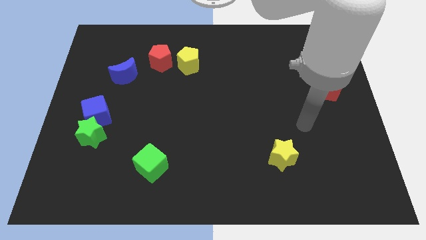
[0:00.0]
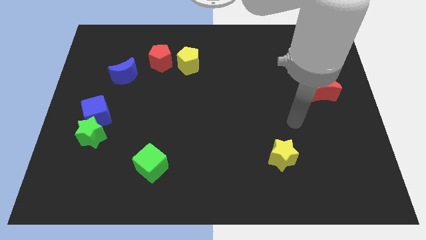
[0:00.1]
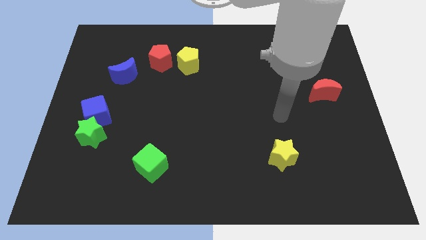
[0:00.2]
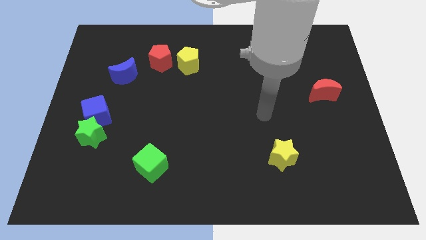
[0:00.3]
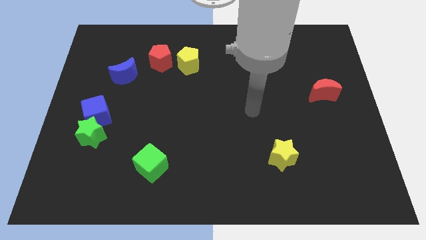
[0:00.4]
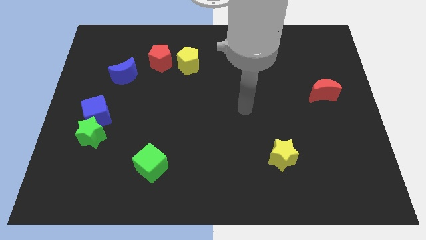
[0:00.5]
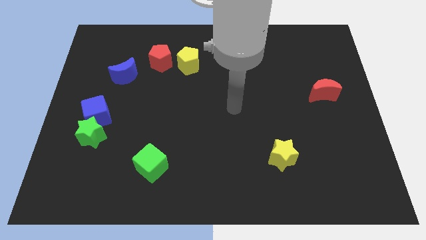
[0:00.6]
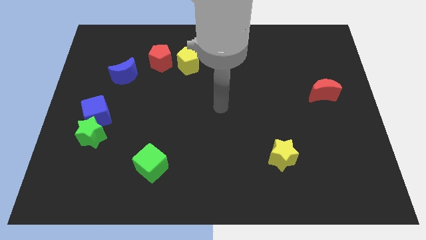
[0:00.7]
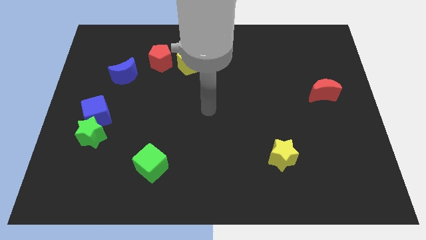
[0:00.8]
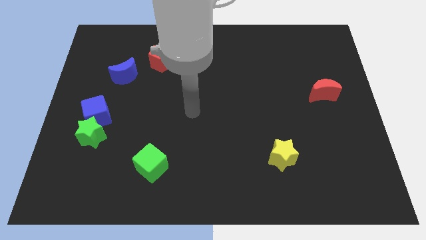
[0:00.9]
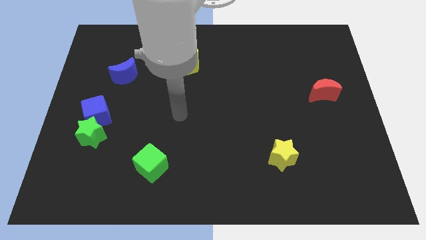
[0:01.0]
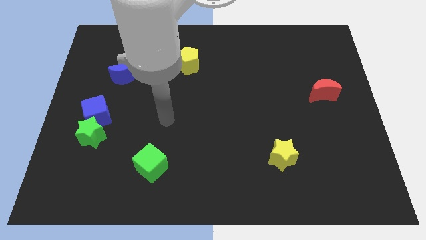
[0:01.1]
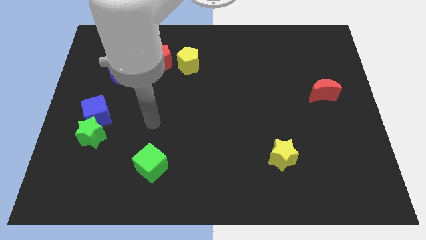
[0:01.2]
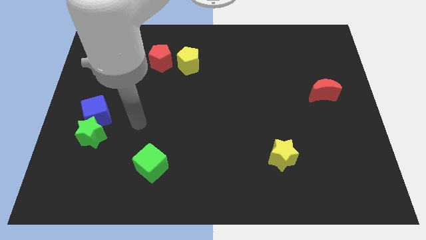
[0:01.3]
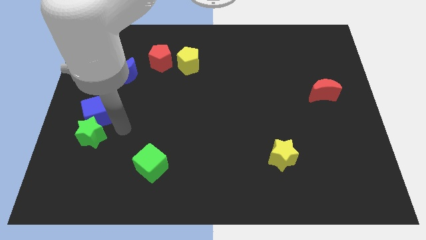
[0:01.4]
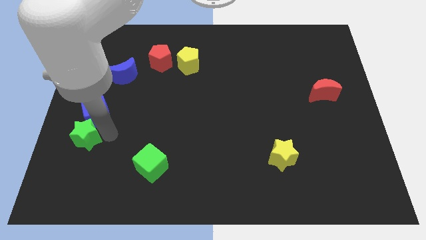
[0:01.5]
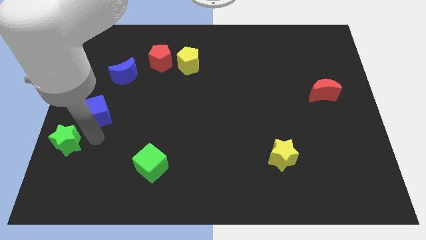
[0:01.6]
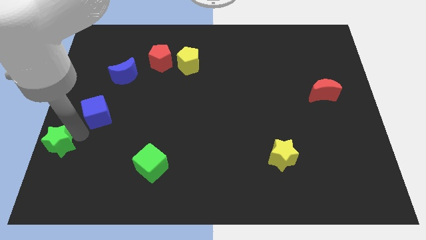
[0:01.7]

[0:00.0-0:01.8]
pull the blue cube apart from the green star

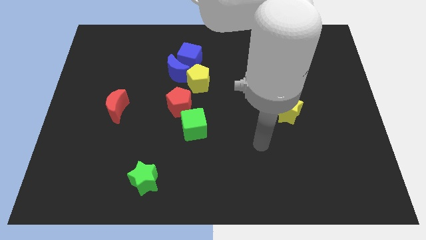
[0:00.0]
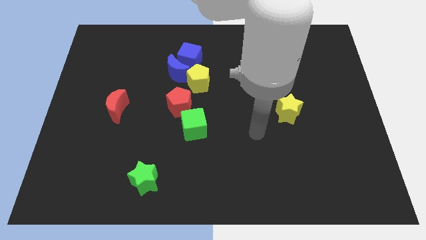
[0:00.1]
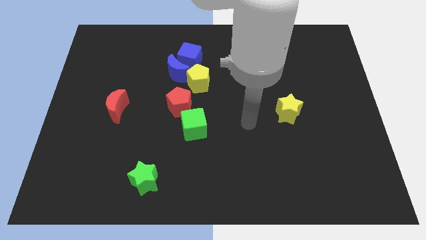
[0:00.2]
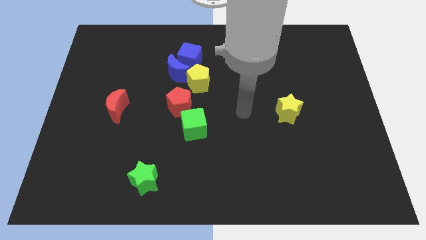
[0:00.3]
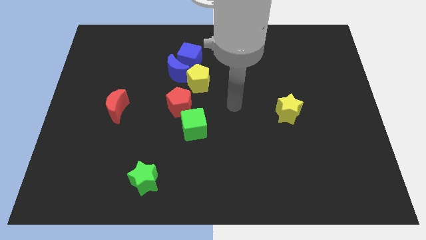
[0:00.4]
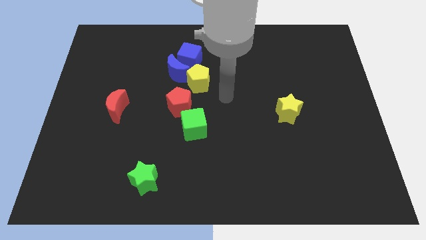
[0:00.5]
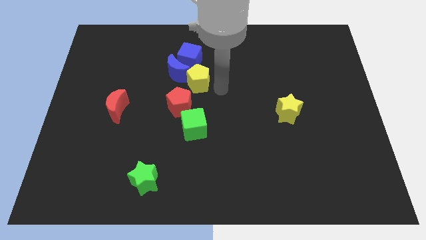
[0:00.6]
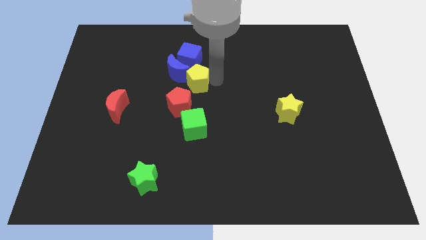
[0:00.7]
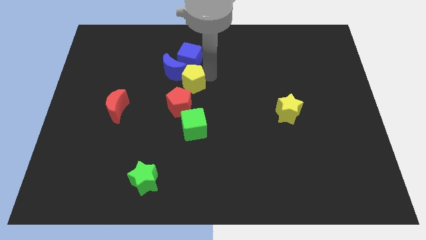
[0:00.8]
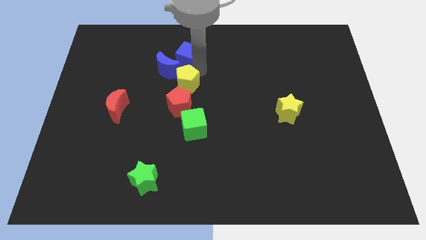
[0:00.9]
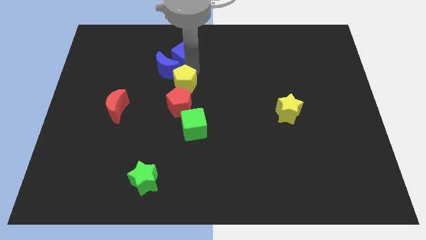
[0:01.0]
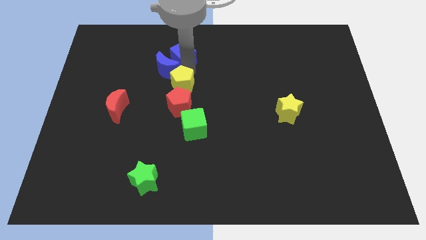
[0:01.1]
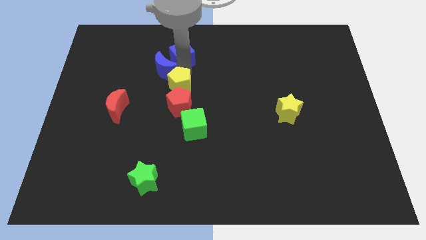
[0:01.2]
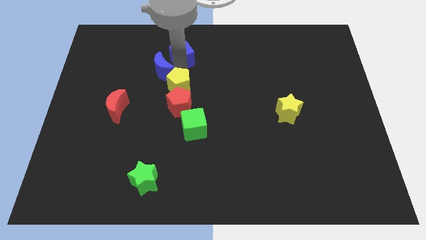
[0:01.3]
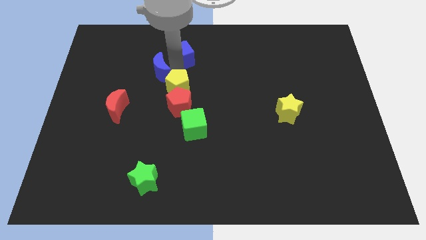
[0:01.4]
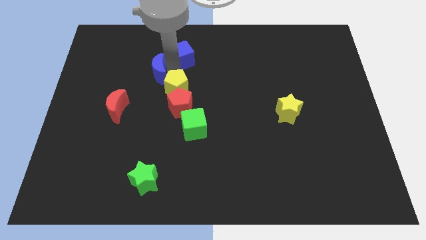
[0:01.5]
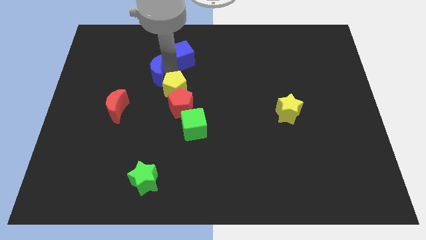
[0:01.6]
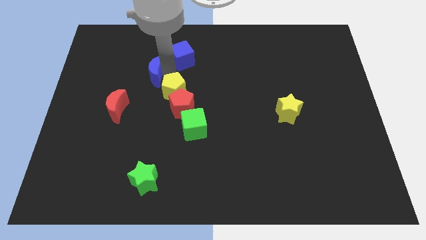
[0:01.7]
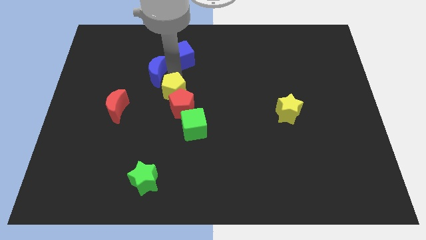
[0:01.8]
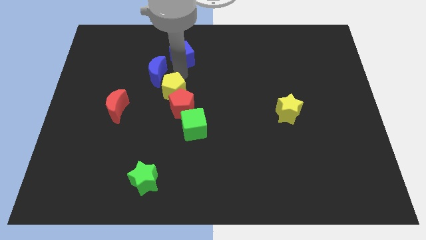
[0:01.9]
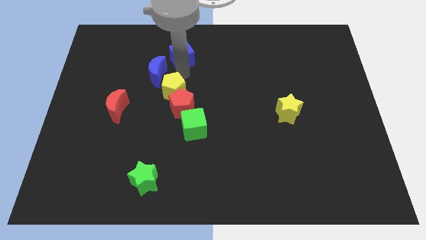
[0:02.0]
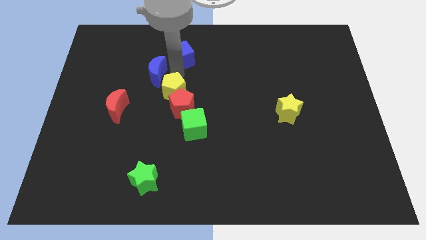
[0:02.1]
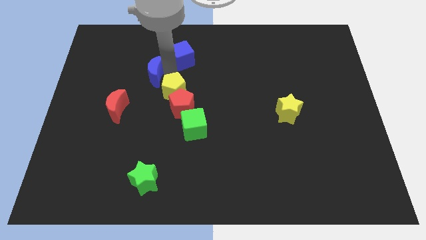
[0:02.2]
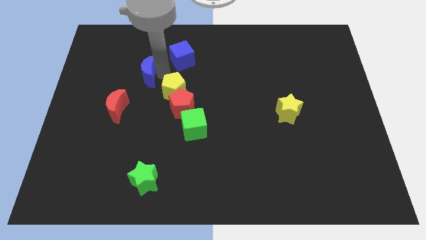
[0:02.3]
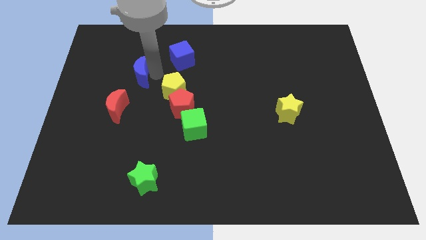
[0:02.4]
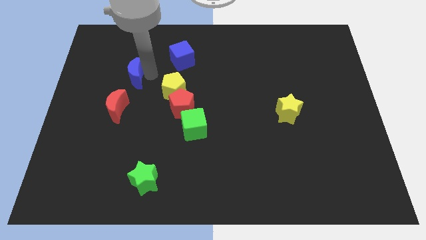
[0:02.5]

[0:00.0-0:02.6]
pull the blue moon apart from the blue cube and yellow pentagon

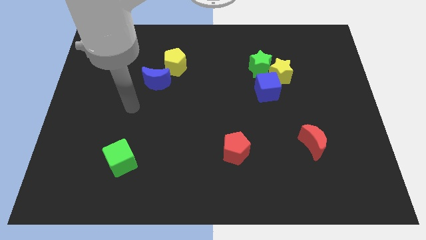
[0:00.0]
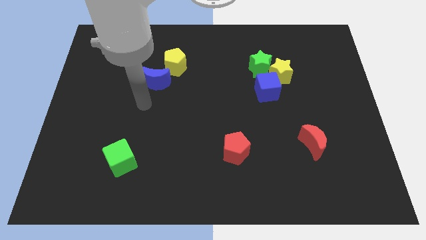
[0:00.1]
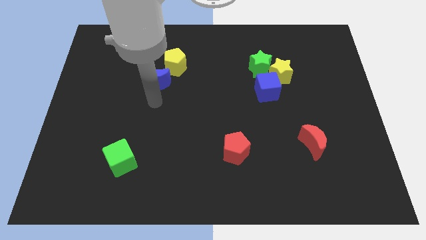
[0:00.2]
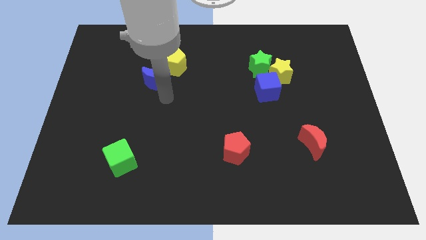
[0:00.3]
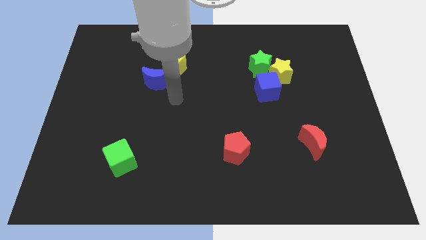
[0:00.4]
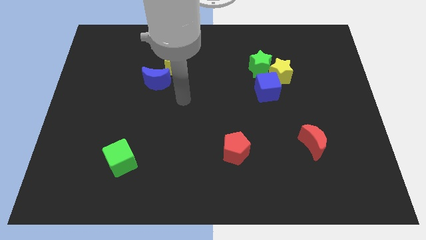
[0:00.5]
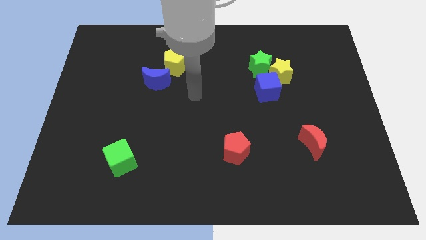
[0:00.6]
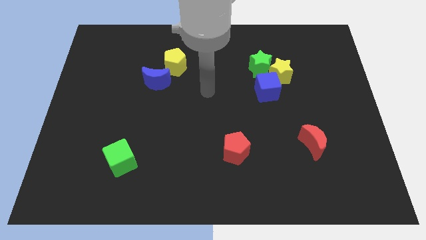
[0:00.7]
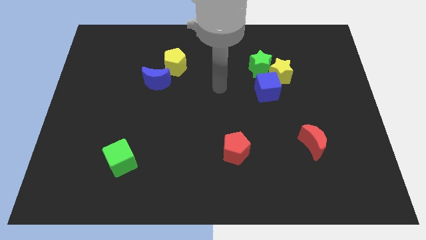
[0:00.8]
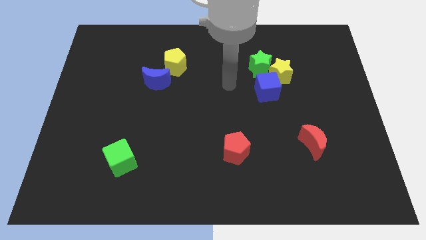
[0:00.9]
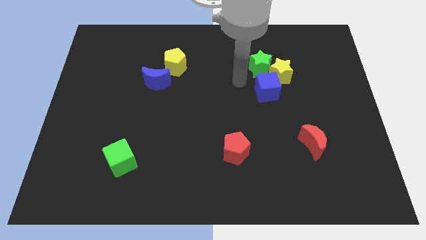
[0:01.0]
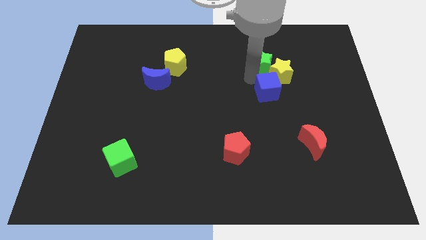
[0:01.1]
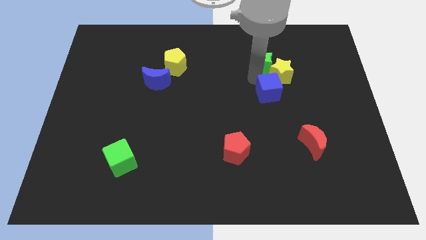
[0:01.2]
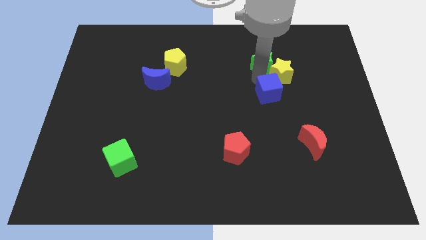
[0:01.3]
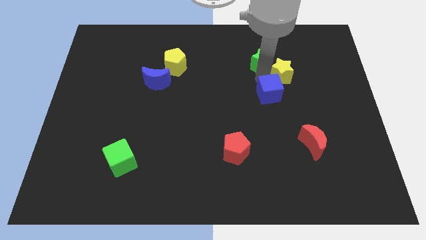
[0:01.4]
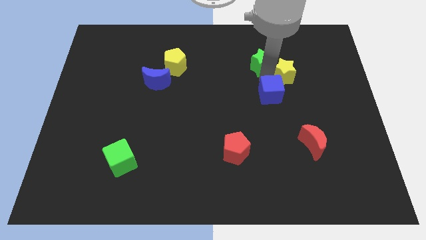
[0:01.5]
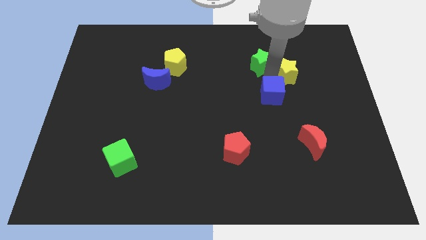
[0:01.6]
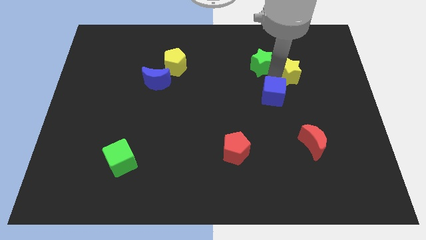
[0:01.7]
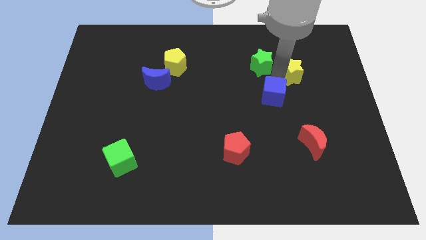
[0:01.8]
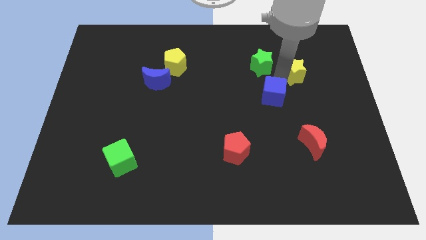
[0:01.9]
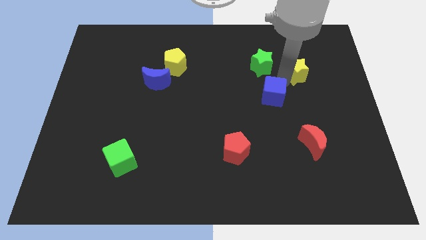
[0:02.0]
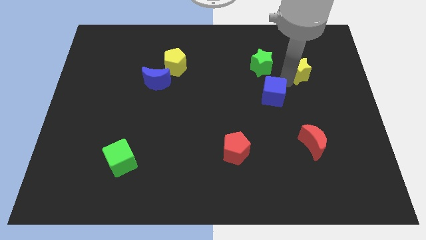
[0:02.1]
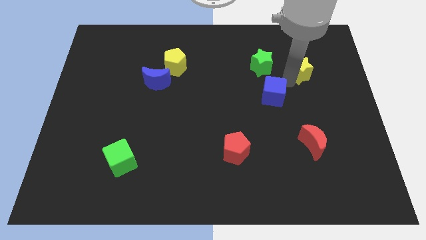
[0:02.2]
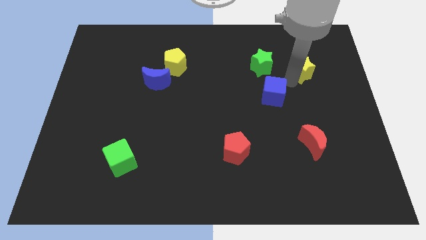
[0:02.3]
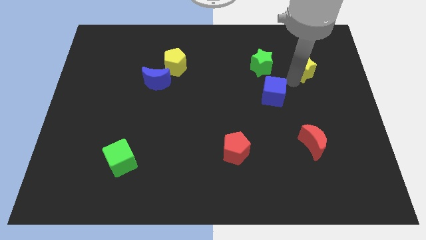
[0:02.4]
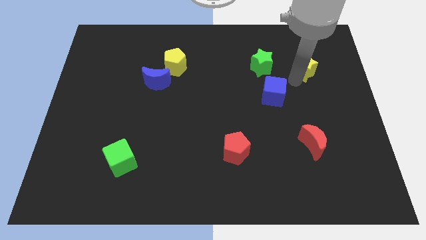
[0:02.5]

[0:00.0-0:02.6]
separate the yellow star from the green star and blue cube

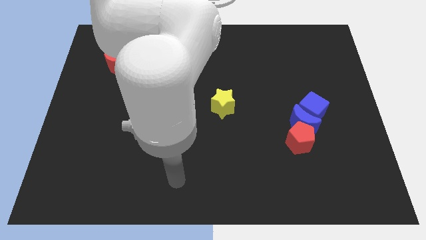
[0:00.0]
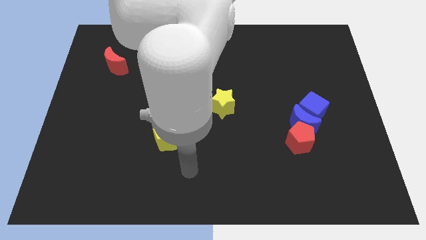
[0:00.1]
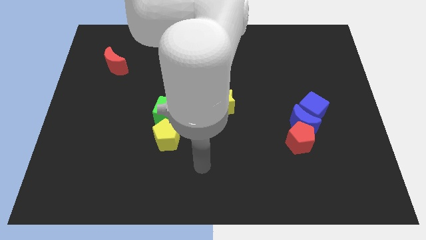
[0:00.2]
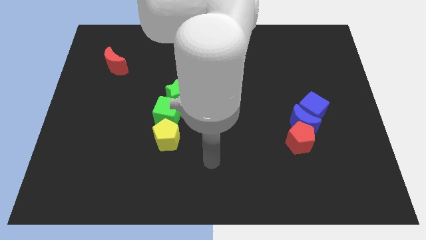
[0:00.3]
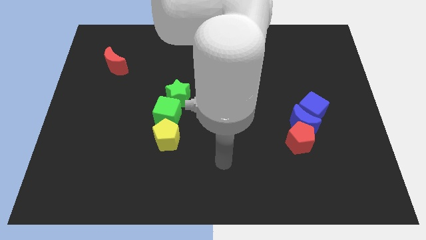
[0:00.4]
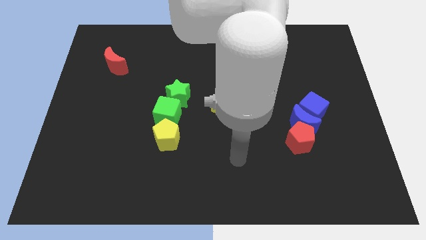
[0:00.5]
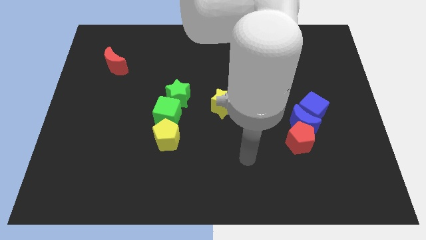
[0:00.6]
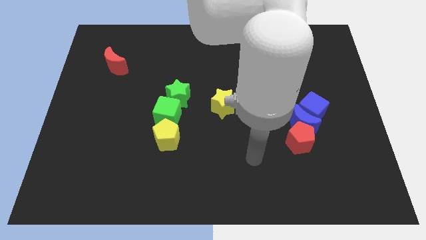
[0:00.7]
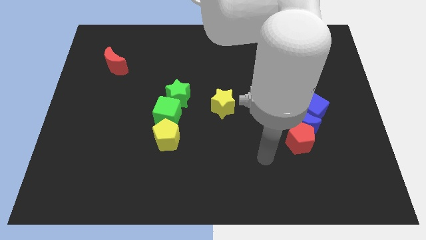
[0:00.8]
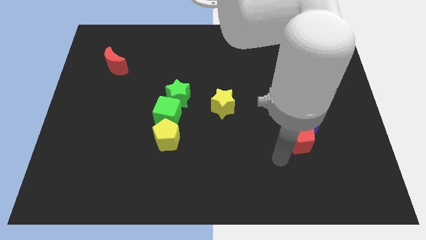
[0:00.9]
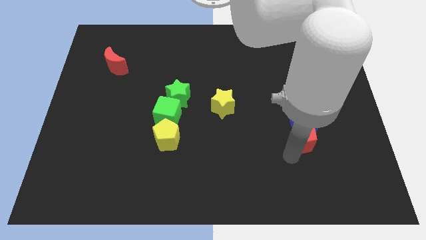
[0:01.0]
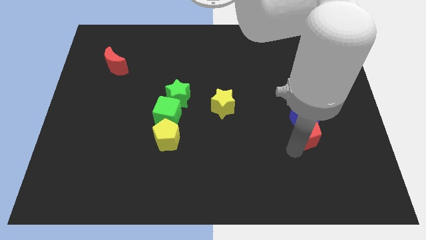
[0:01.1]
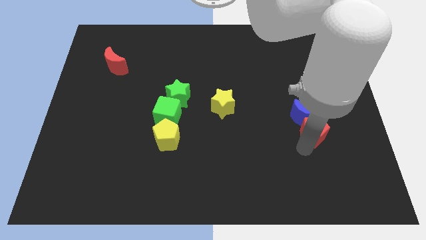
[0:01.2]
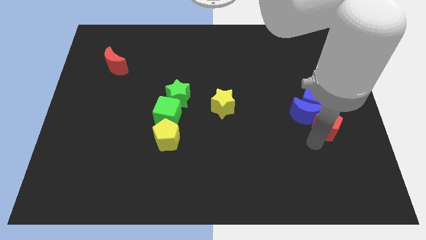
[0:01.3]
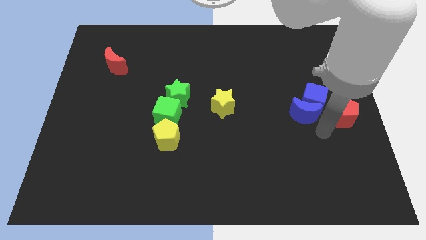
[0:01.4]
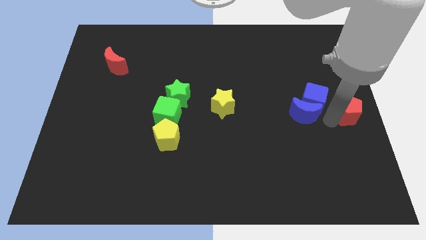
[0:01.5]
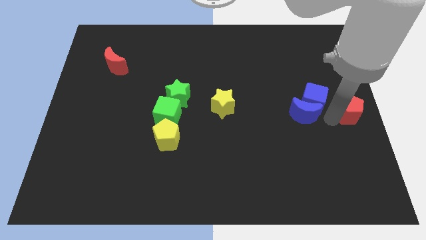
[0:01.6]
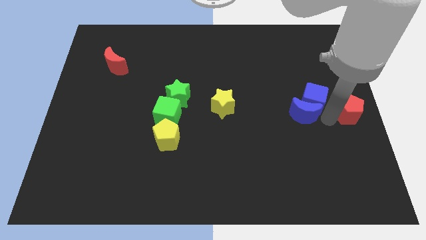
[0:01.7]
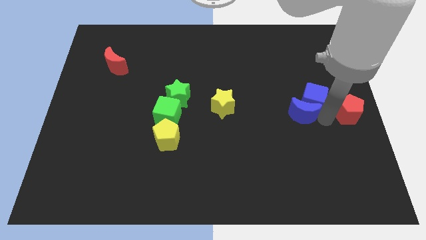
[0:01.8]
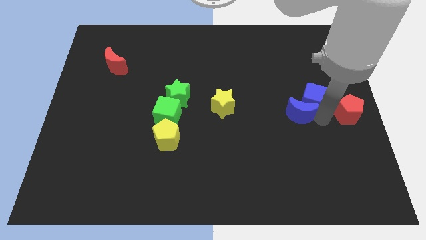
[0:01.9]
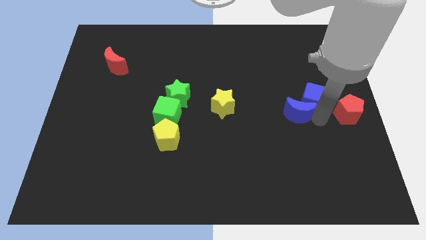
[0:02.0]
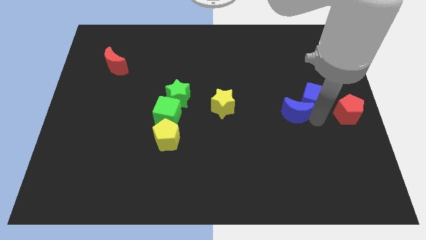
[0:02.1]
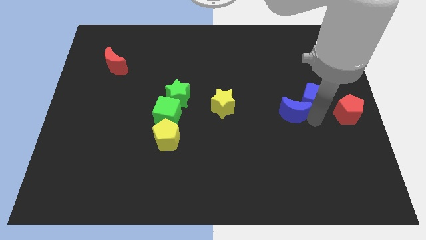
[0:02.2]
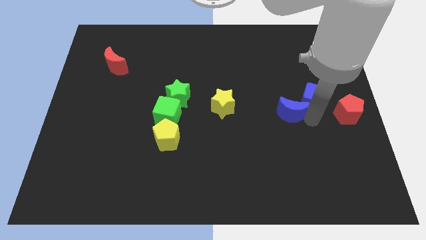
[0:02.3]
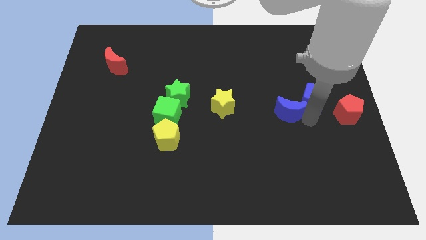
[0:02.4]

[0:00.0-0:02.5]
separate the blue moon from the blue cube and red pentagon

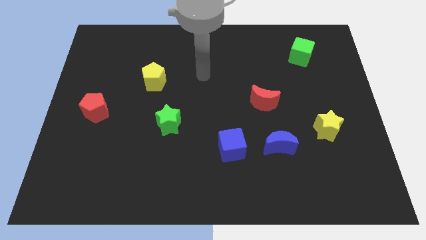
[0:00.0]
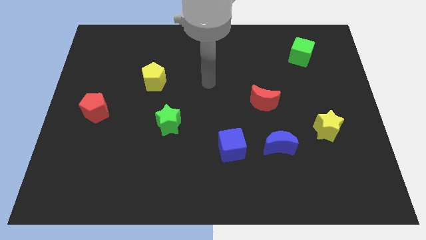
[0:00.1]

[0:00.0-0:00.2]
separate the blue moon from the blue cube
